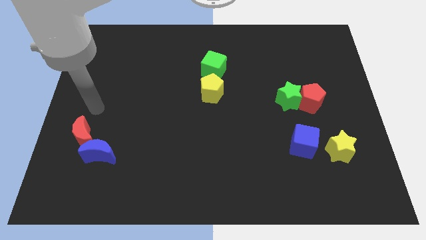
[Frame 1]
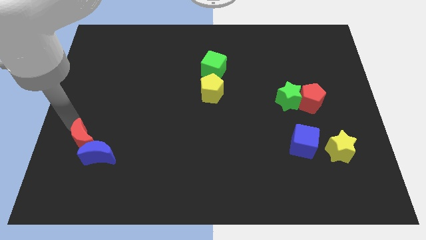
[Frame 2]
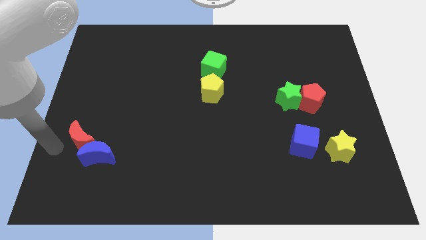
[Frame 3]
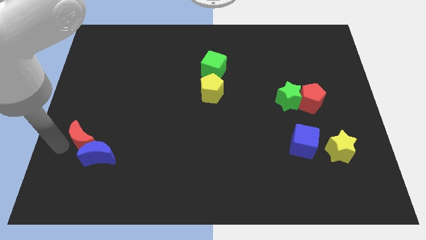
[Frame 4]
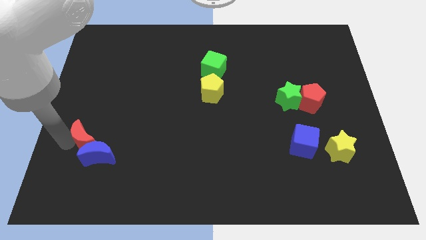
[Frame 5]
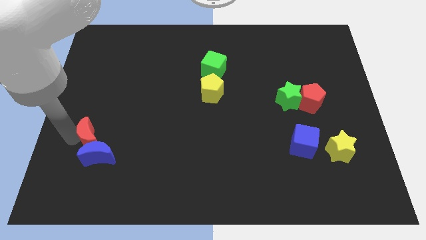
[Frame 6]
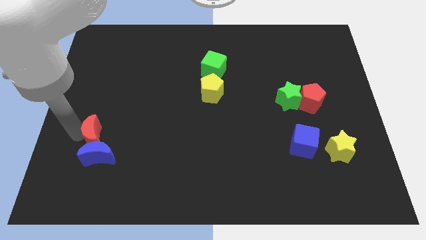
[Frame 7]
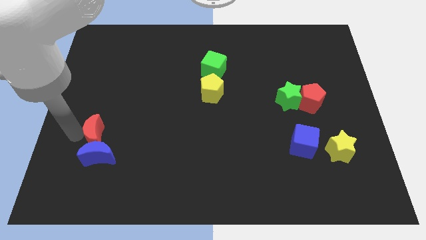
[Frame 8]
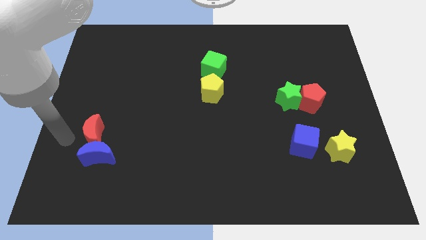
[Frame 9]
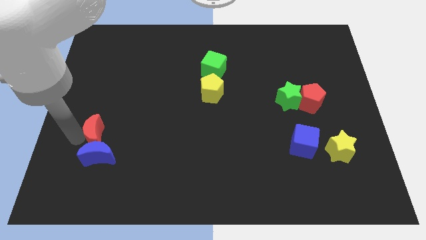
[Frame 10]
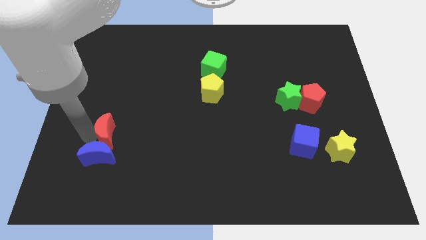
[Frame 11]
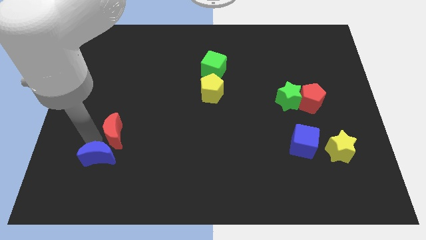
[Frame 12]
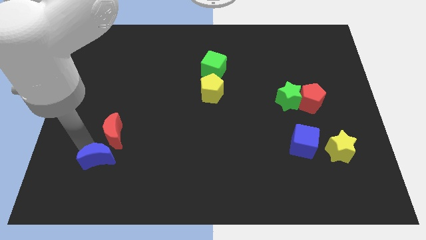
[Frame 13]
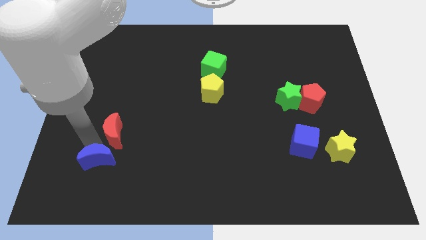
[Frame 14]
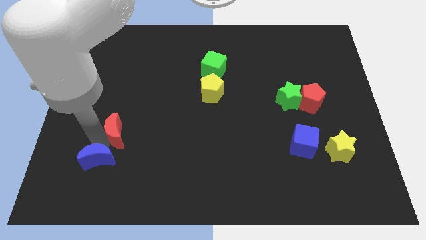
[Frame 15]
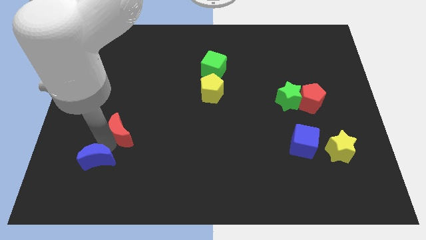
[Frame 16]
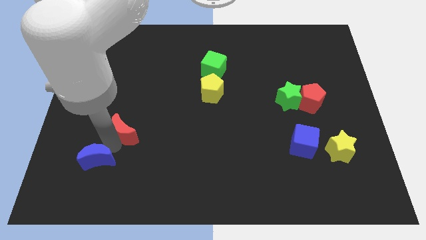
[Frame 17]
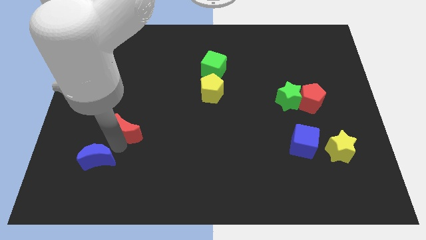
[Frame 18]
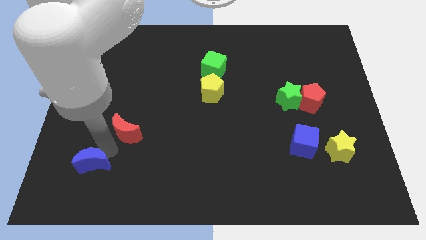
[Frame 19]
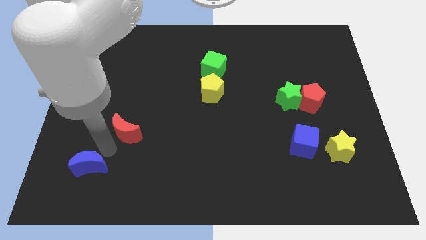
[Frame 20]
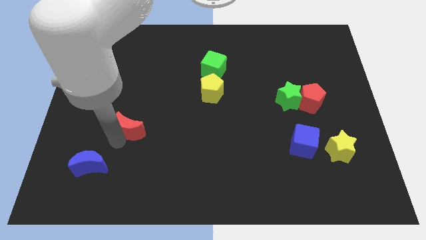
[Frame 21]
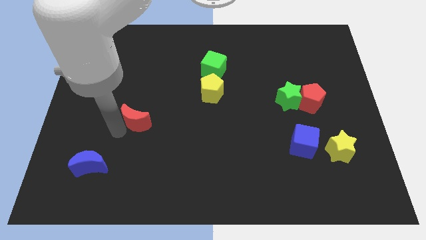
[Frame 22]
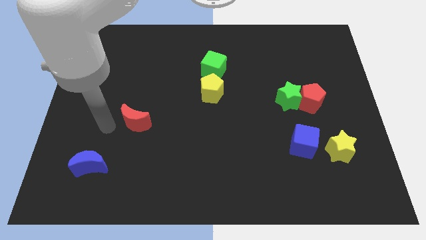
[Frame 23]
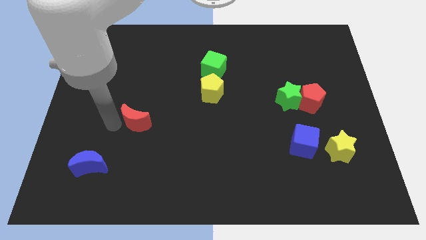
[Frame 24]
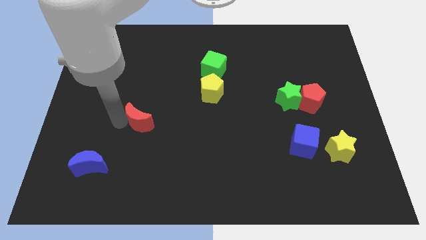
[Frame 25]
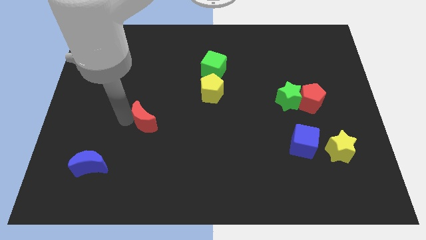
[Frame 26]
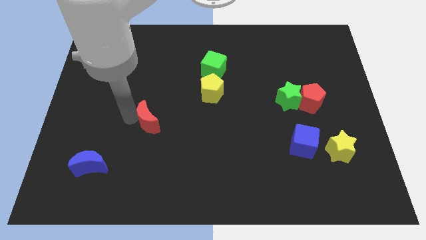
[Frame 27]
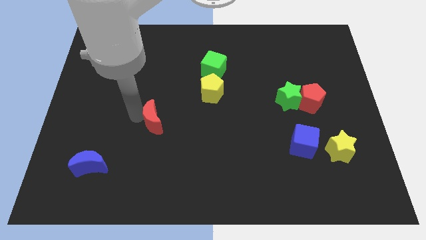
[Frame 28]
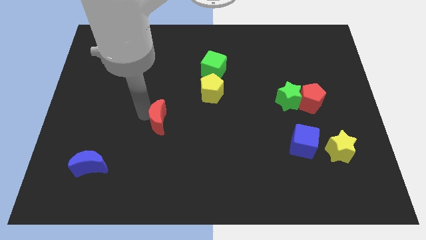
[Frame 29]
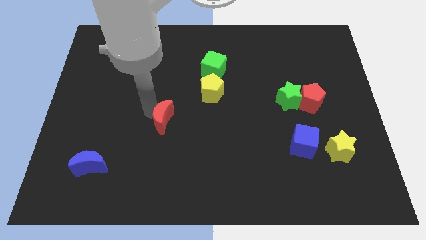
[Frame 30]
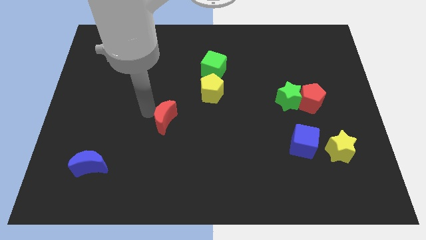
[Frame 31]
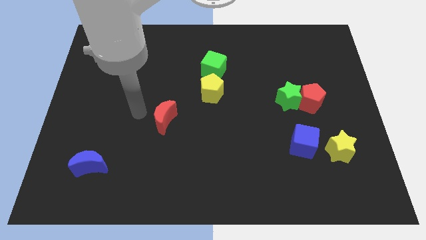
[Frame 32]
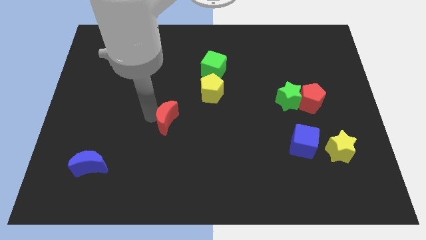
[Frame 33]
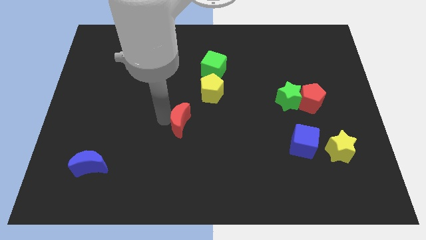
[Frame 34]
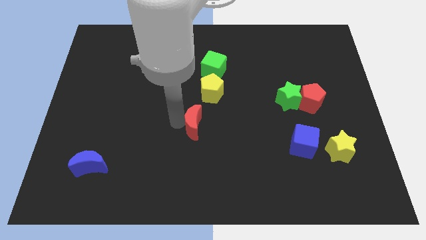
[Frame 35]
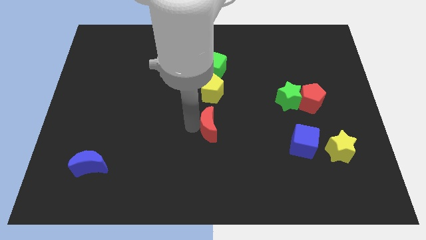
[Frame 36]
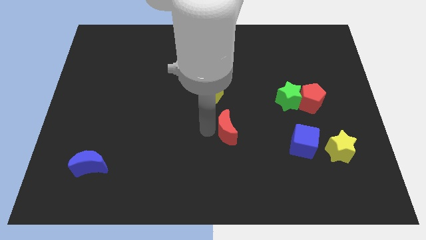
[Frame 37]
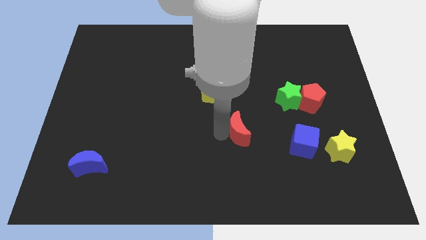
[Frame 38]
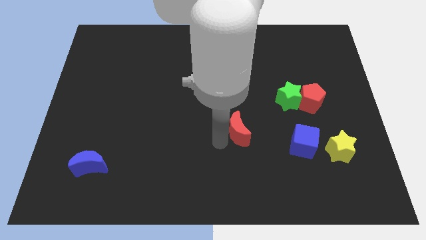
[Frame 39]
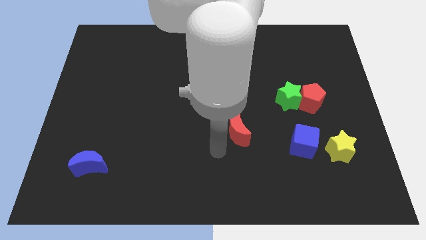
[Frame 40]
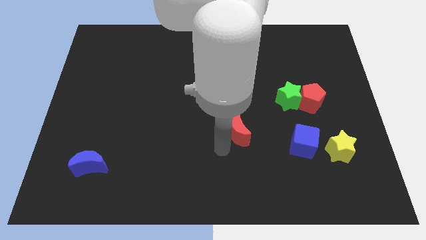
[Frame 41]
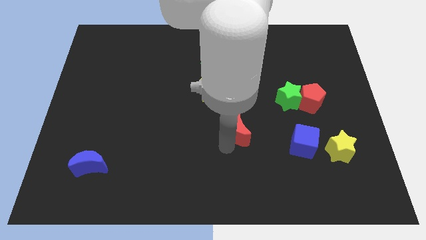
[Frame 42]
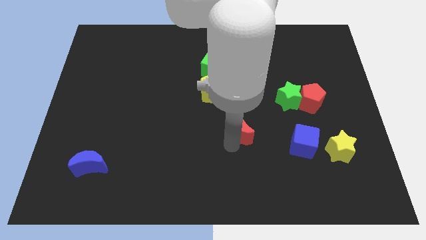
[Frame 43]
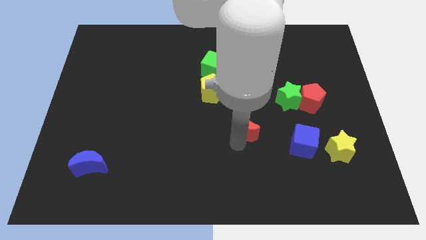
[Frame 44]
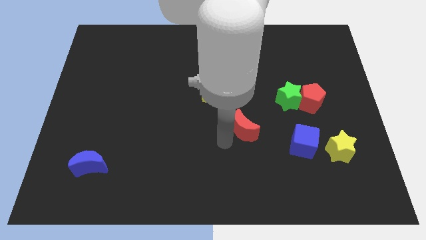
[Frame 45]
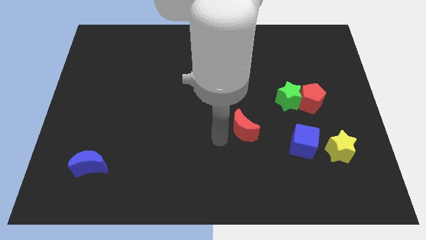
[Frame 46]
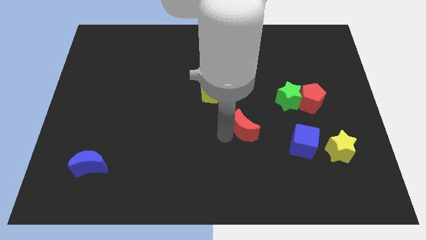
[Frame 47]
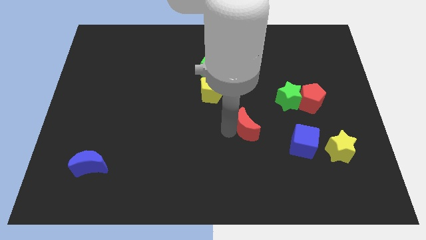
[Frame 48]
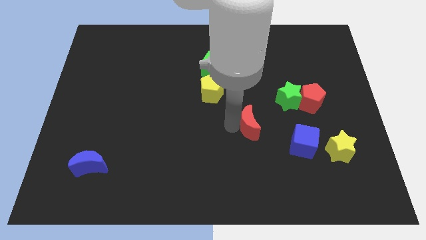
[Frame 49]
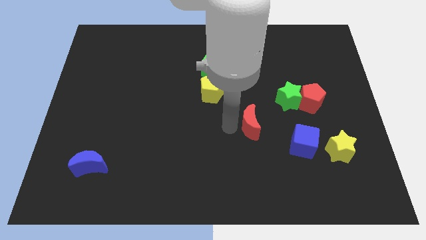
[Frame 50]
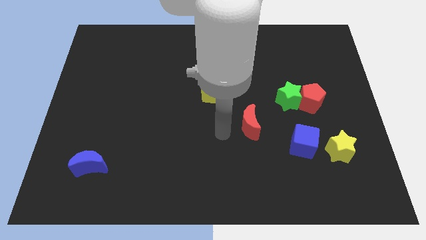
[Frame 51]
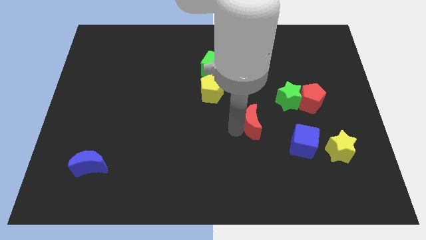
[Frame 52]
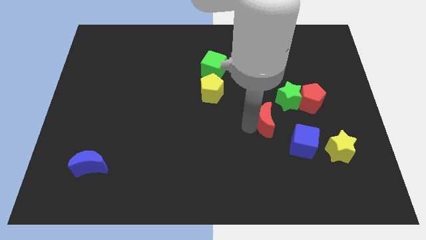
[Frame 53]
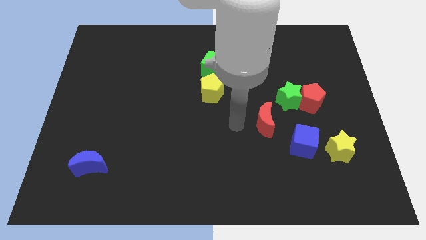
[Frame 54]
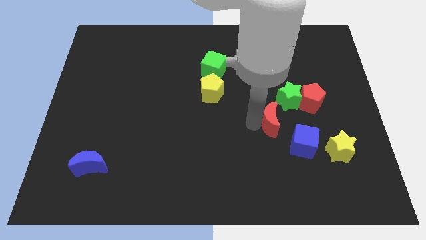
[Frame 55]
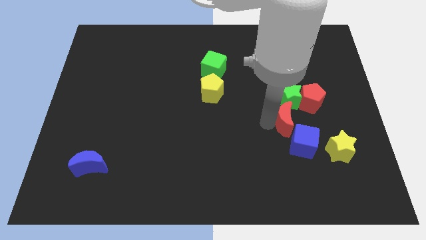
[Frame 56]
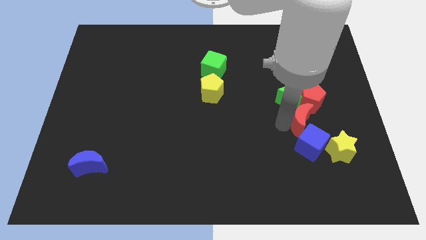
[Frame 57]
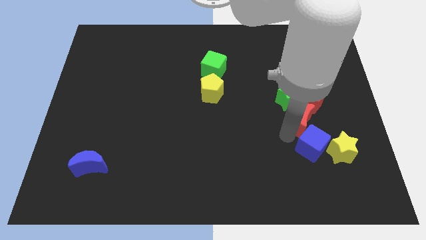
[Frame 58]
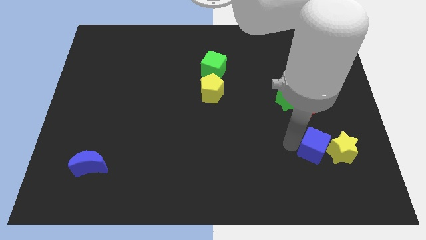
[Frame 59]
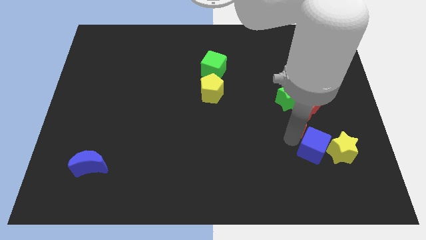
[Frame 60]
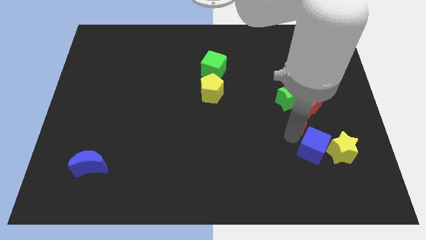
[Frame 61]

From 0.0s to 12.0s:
slide the red moon next to the red pentagon

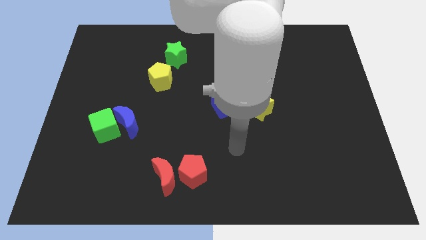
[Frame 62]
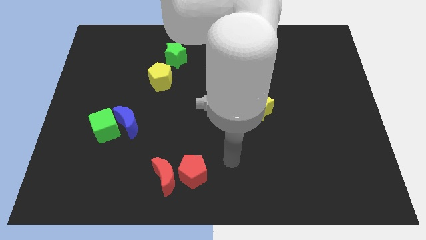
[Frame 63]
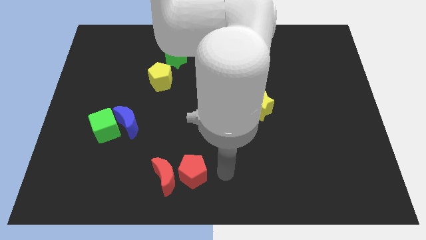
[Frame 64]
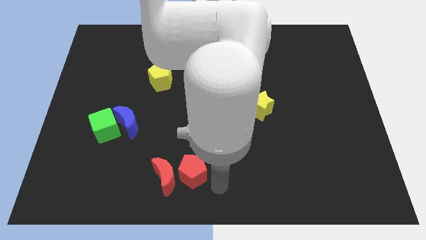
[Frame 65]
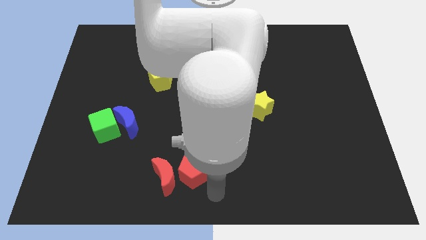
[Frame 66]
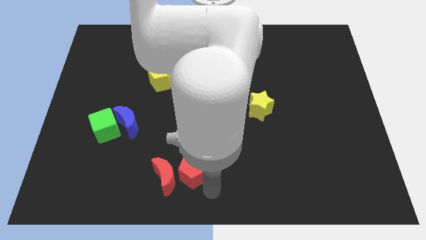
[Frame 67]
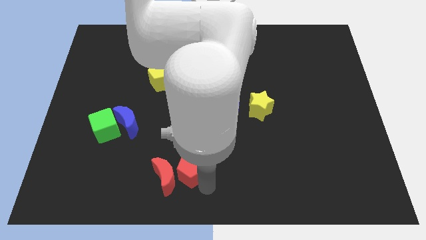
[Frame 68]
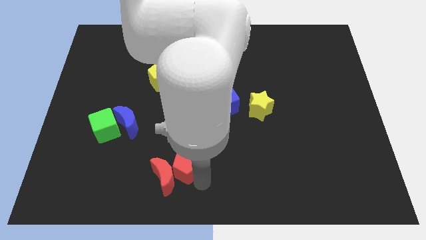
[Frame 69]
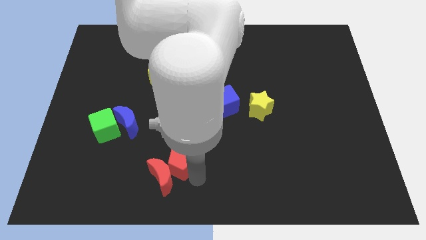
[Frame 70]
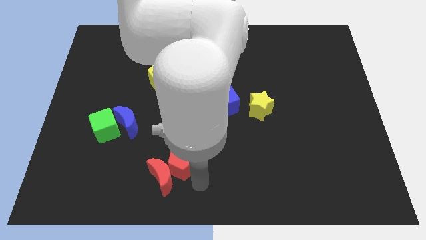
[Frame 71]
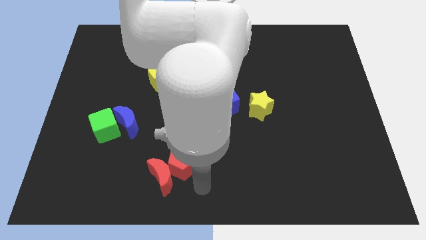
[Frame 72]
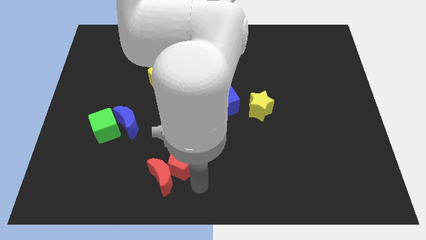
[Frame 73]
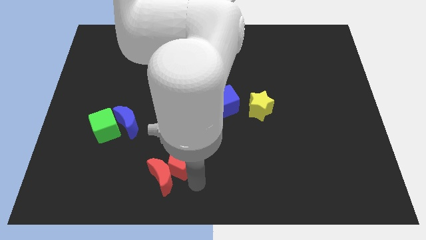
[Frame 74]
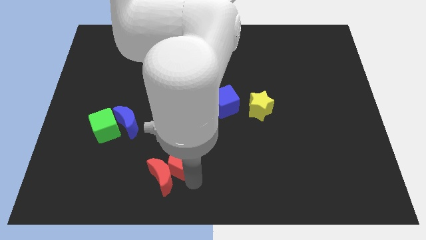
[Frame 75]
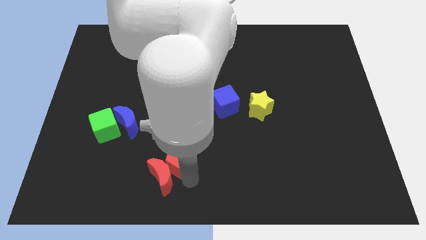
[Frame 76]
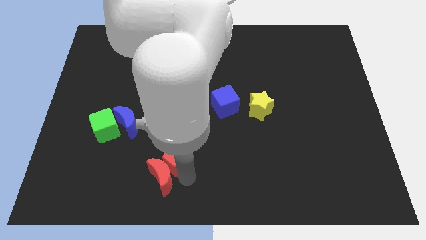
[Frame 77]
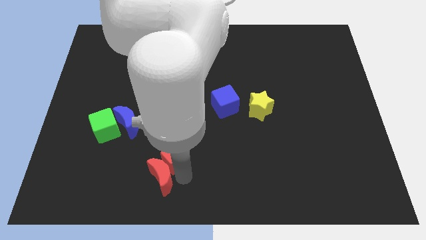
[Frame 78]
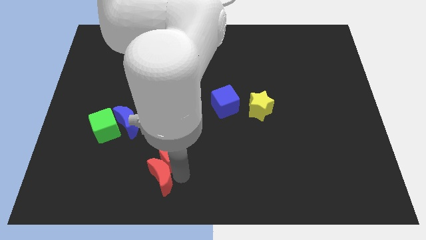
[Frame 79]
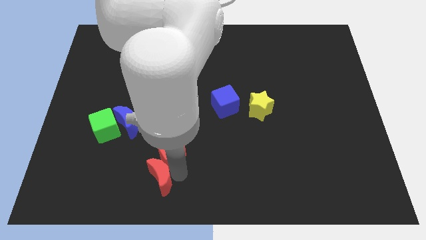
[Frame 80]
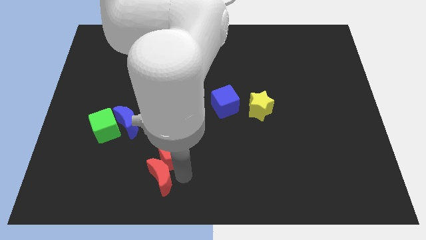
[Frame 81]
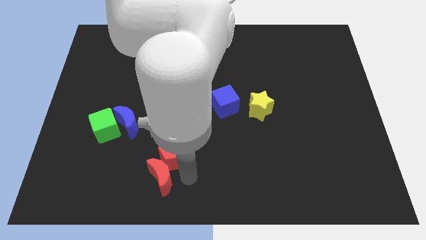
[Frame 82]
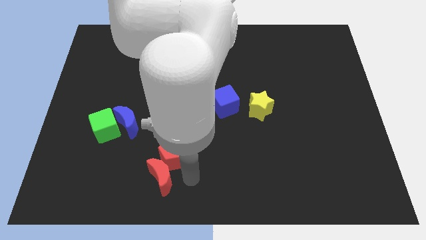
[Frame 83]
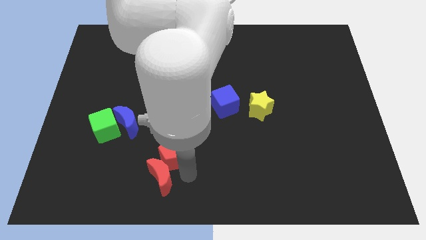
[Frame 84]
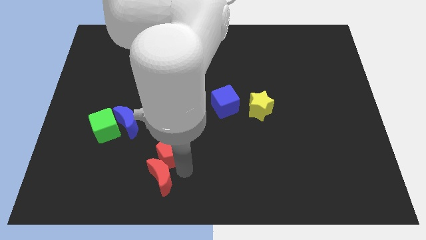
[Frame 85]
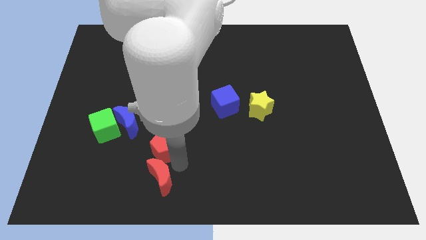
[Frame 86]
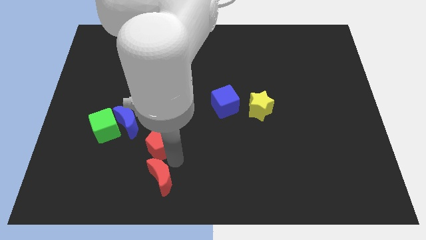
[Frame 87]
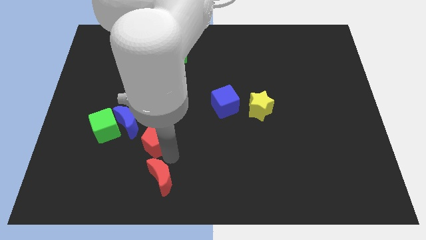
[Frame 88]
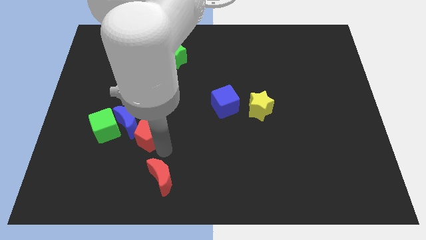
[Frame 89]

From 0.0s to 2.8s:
slide the red pentagon next to the blue moon
